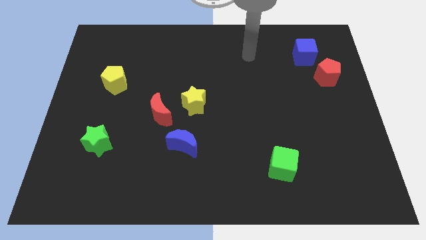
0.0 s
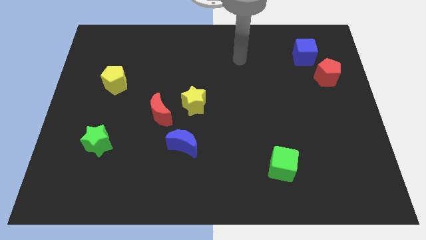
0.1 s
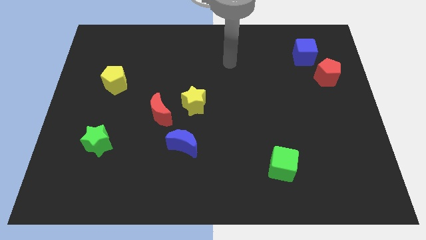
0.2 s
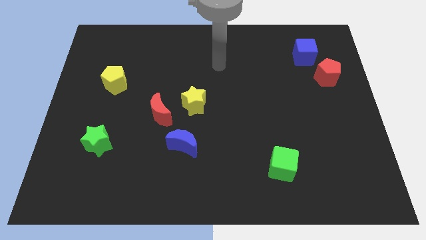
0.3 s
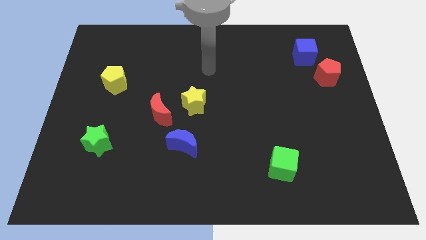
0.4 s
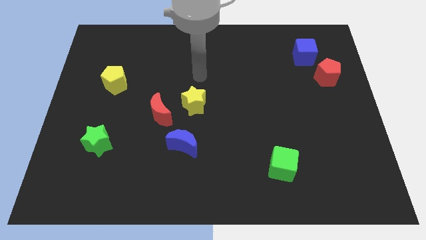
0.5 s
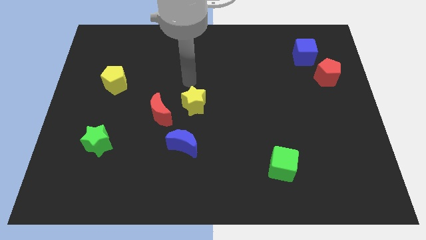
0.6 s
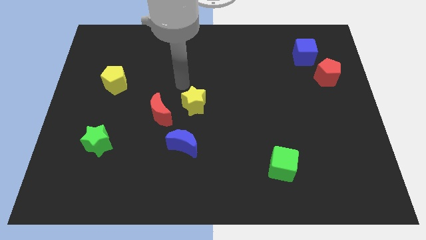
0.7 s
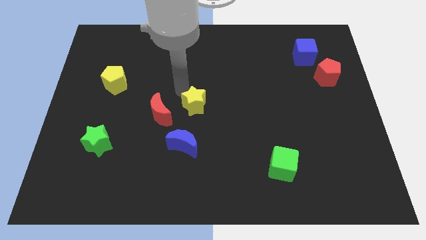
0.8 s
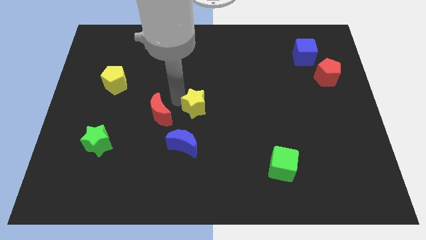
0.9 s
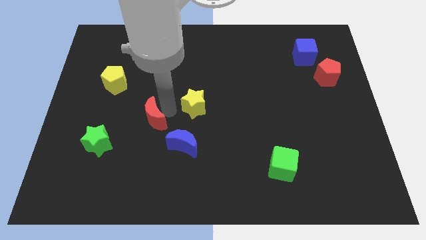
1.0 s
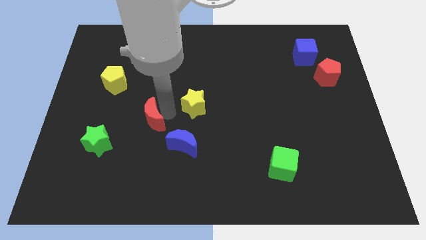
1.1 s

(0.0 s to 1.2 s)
pull the yellow star apart from the red moon

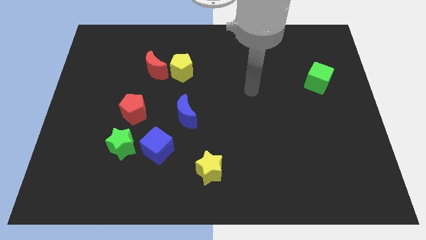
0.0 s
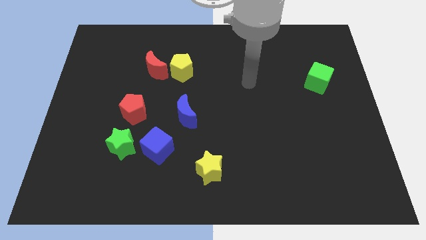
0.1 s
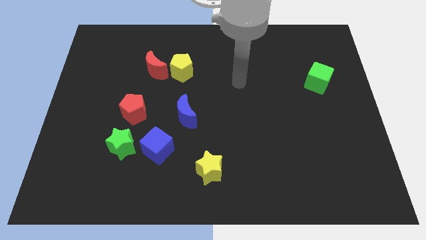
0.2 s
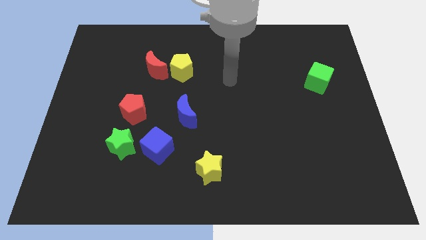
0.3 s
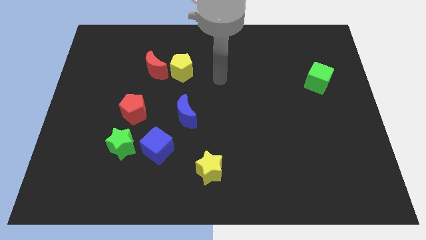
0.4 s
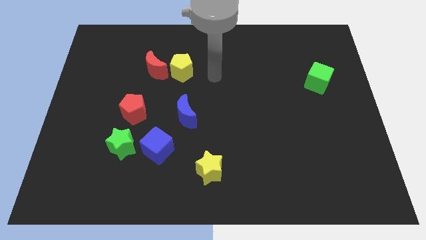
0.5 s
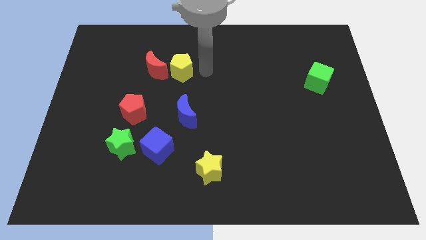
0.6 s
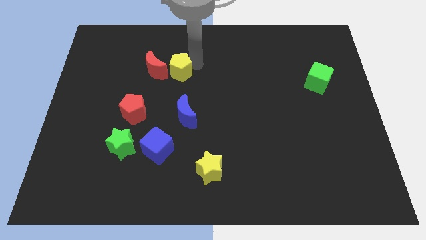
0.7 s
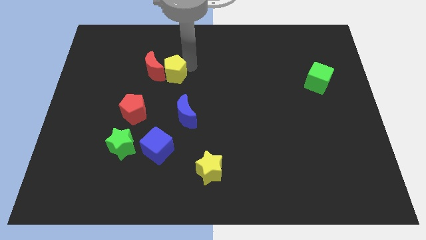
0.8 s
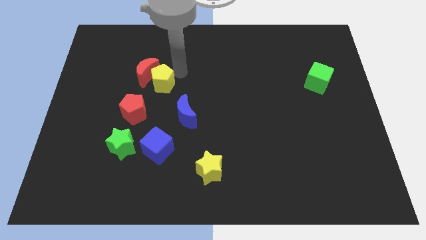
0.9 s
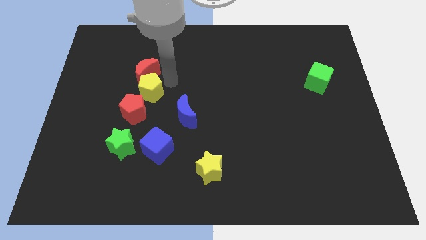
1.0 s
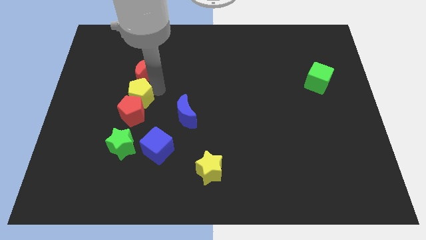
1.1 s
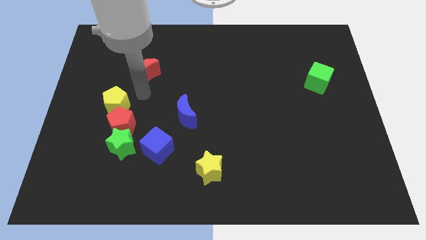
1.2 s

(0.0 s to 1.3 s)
separate the red moon from the yellow pentagon

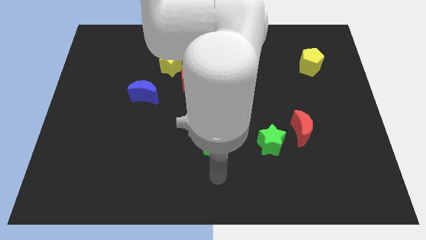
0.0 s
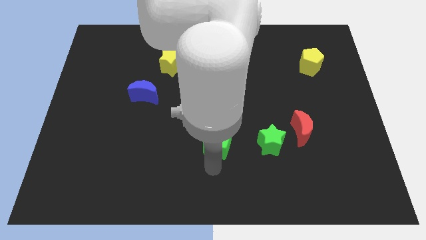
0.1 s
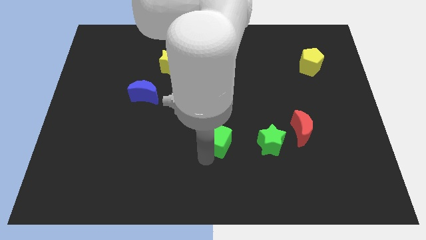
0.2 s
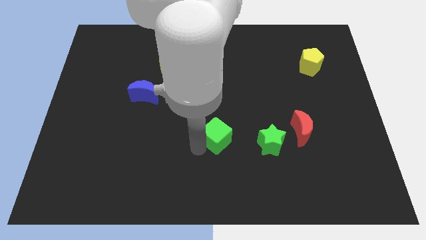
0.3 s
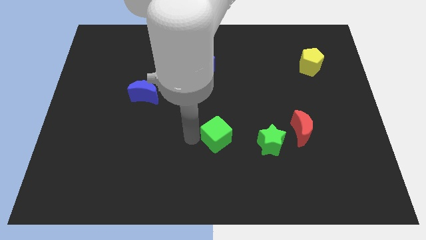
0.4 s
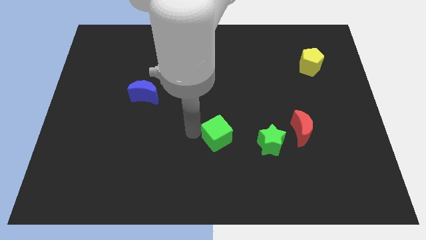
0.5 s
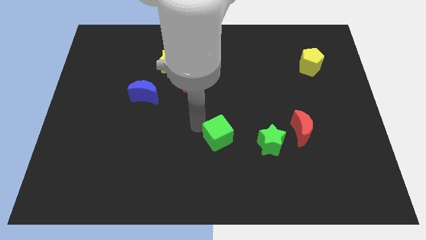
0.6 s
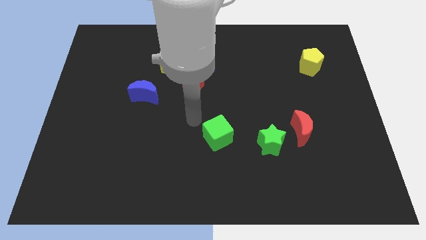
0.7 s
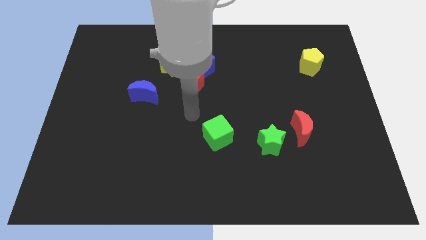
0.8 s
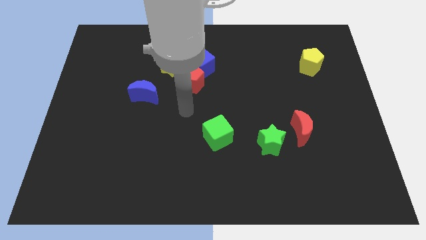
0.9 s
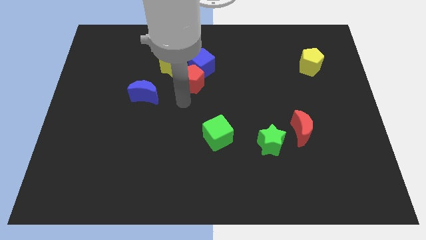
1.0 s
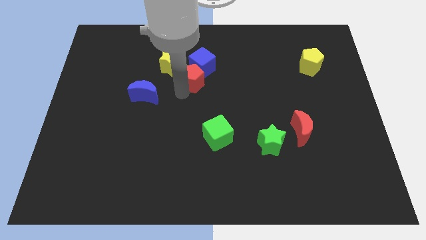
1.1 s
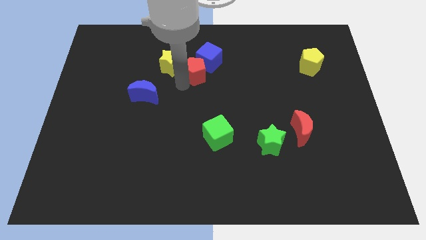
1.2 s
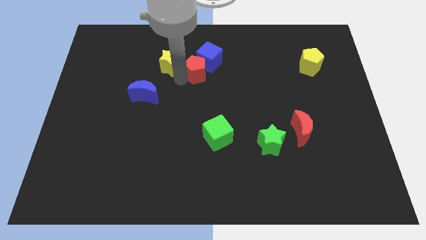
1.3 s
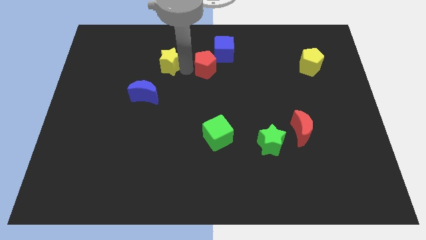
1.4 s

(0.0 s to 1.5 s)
move the blue cube away from the red pentagon and yellow star

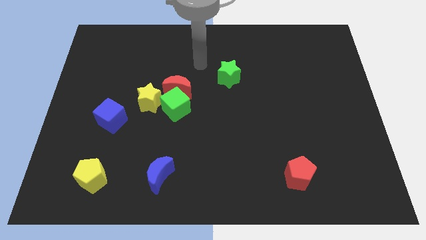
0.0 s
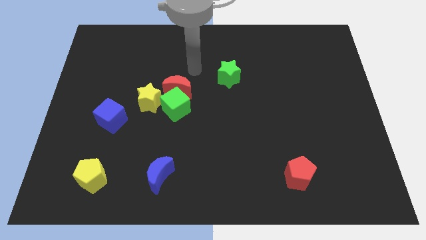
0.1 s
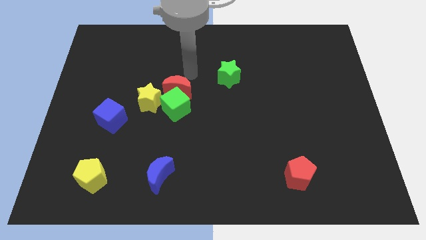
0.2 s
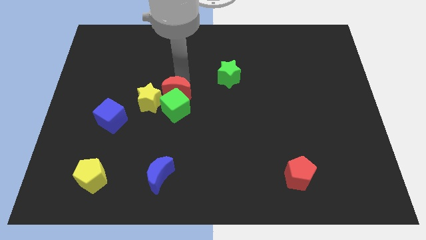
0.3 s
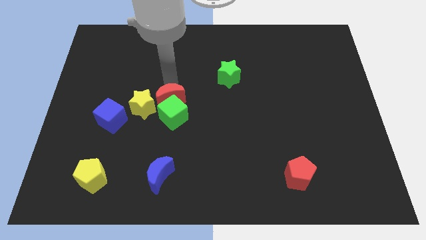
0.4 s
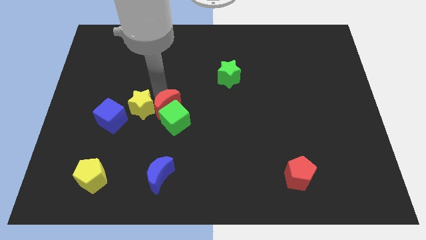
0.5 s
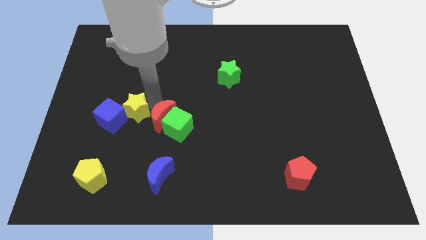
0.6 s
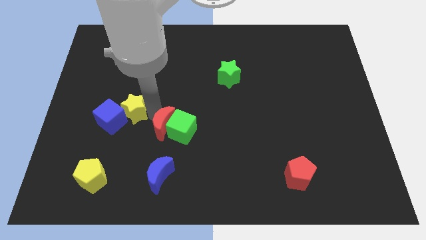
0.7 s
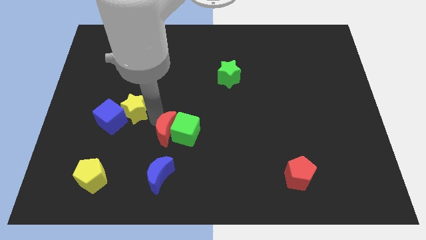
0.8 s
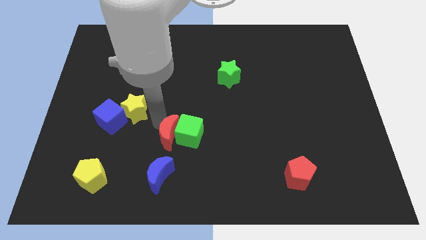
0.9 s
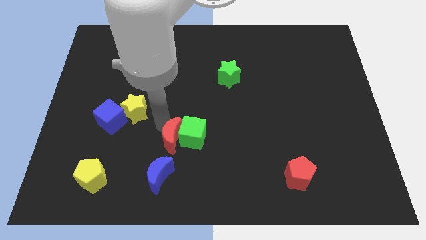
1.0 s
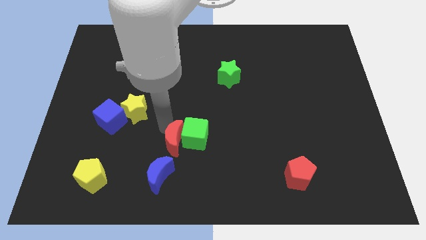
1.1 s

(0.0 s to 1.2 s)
pull the green cube apart from the red moon and yellow star

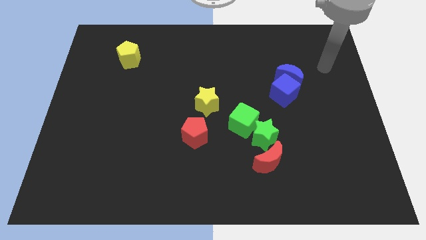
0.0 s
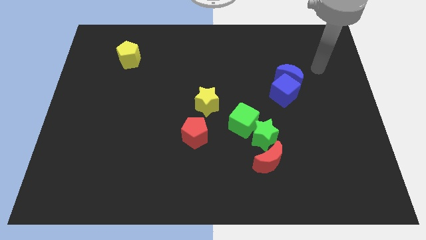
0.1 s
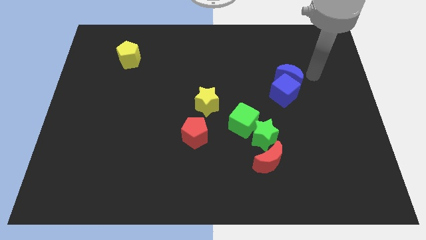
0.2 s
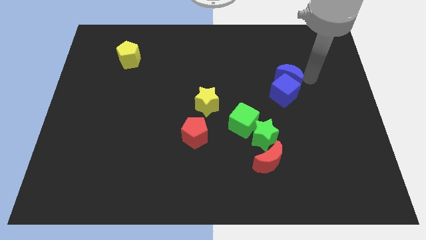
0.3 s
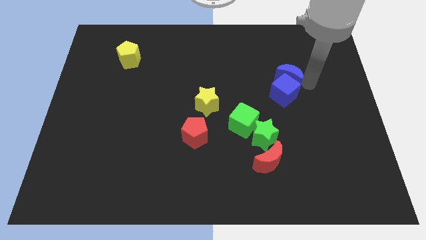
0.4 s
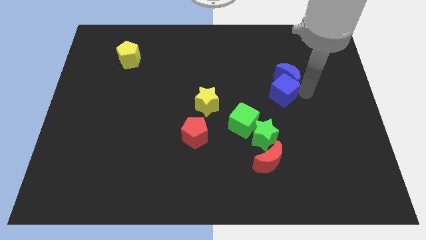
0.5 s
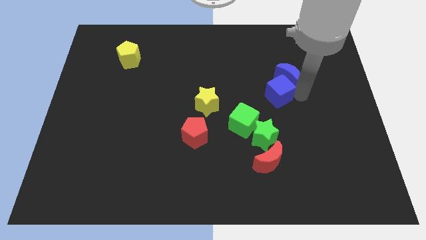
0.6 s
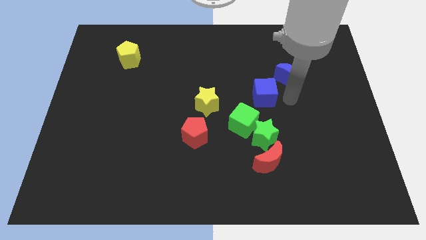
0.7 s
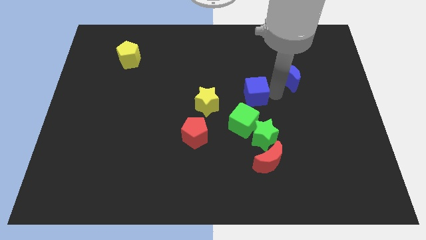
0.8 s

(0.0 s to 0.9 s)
separate the blue moon from the blue cube

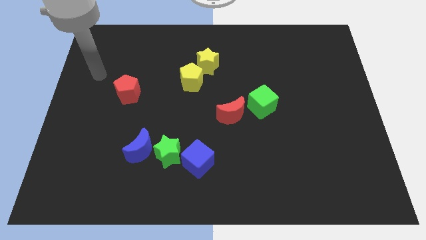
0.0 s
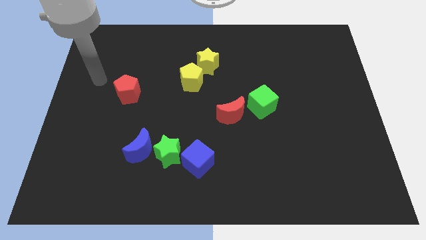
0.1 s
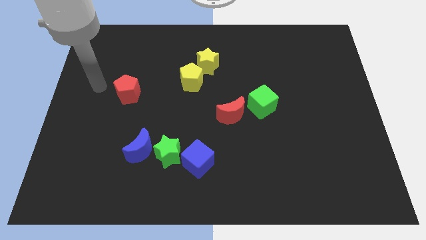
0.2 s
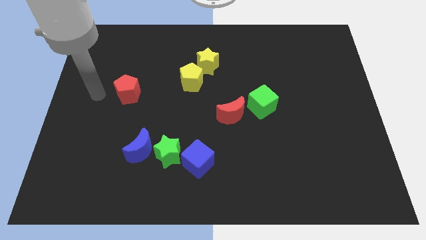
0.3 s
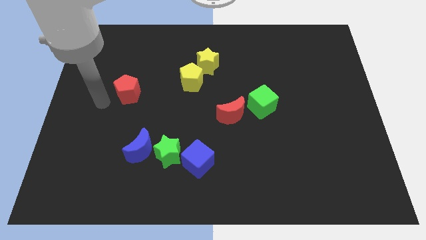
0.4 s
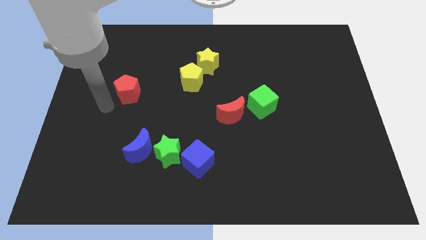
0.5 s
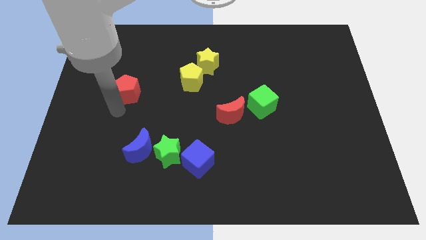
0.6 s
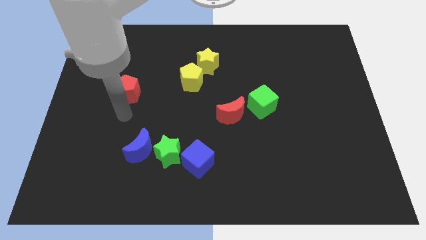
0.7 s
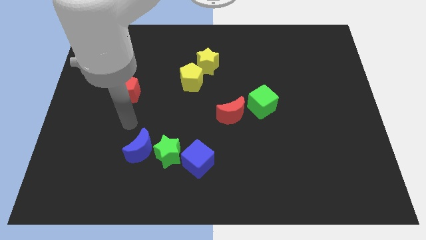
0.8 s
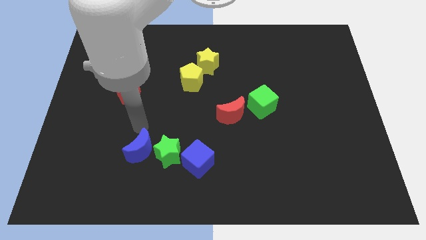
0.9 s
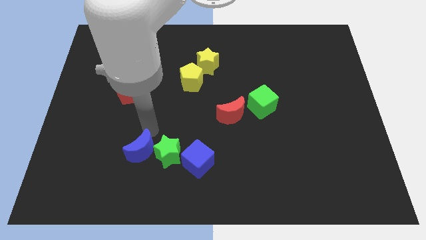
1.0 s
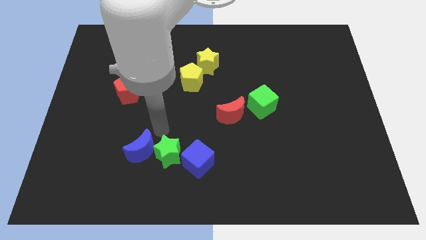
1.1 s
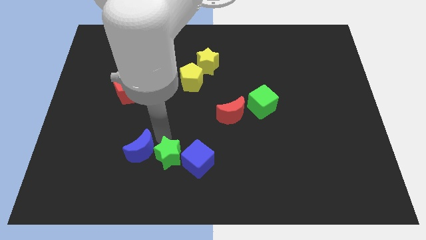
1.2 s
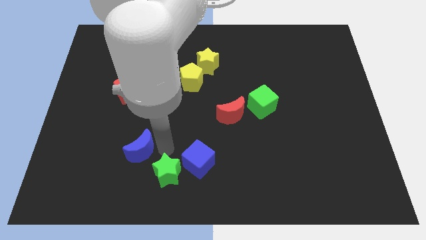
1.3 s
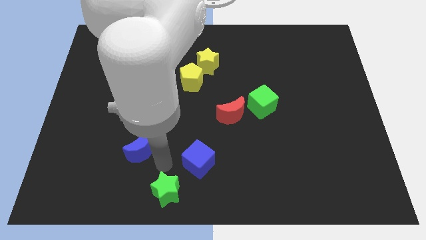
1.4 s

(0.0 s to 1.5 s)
separate the blue moon from the green star

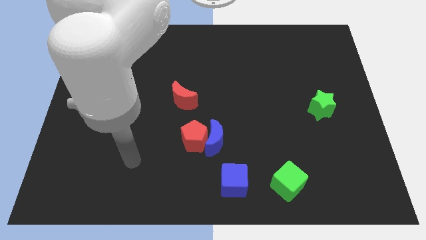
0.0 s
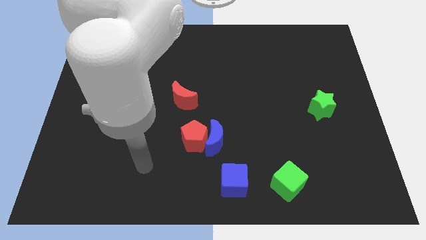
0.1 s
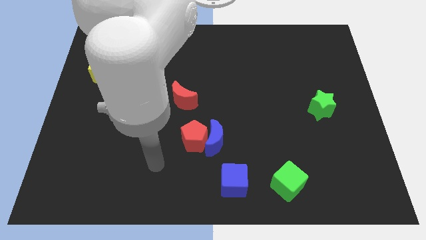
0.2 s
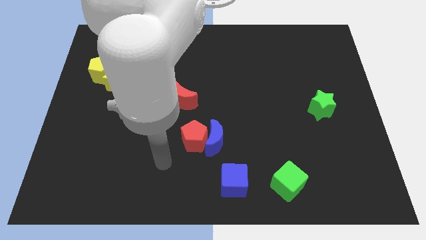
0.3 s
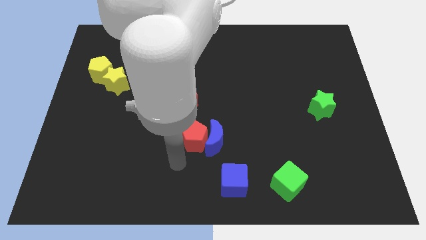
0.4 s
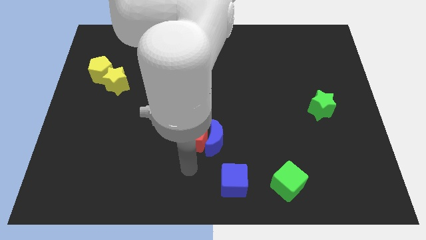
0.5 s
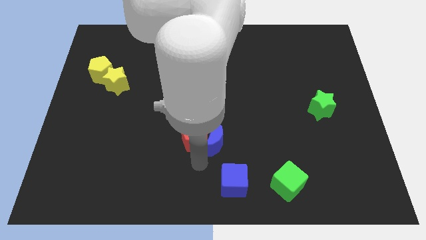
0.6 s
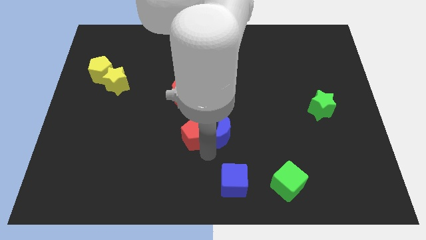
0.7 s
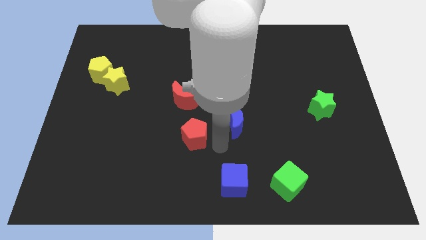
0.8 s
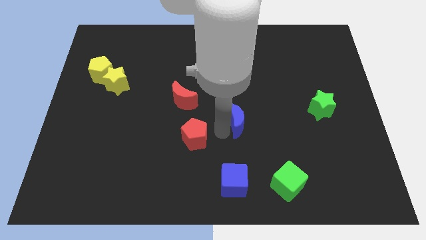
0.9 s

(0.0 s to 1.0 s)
pull the red pentagon apart from the blue moon

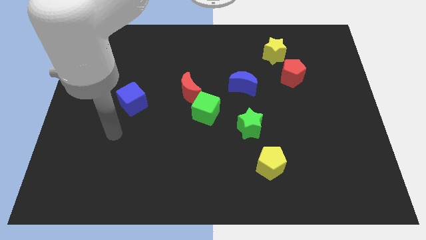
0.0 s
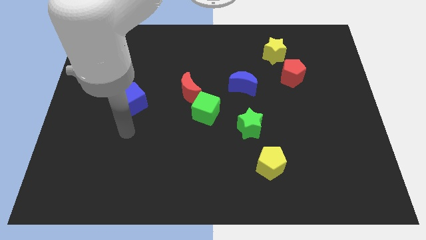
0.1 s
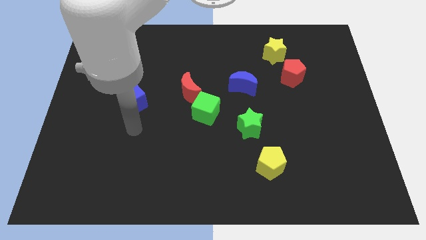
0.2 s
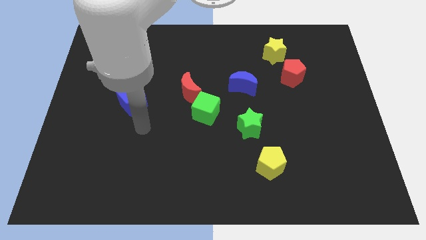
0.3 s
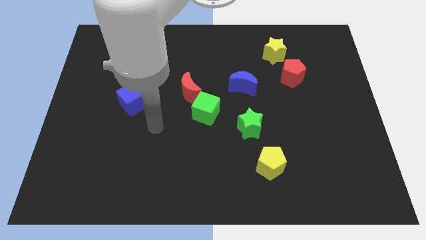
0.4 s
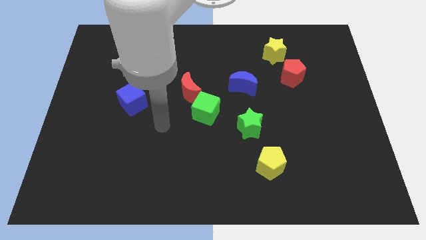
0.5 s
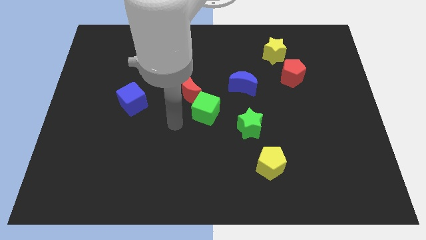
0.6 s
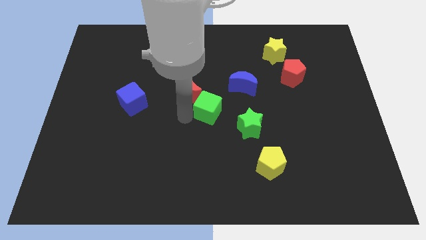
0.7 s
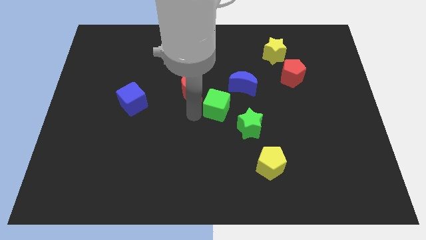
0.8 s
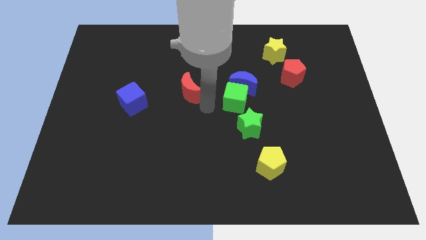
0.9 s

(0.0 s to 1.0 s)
separate the red moon from the green cube
